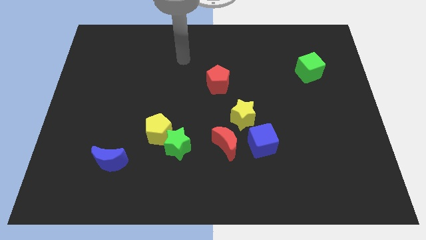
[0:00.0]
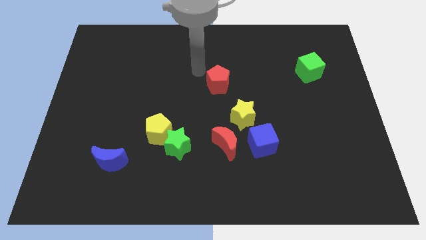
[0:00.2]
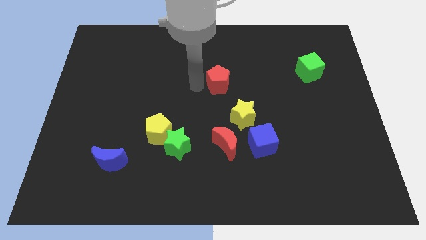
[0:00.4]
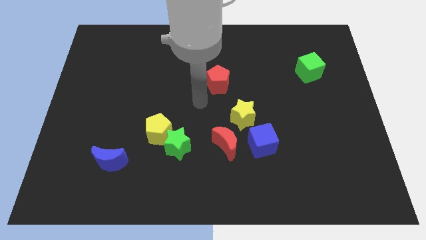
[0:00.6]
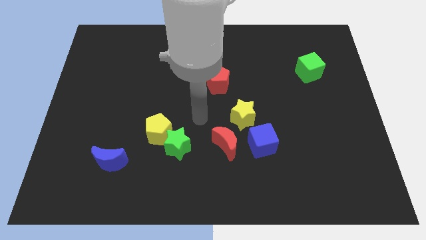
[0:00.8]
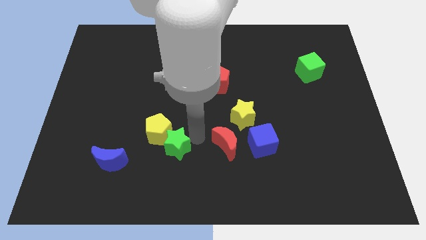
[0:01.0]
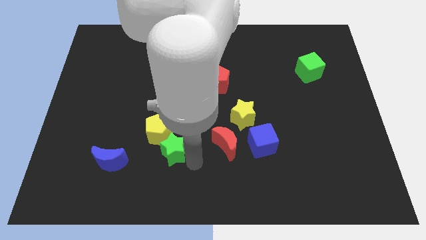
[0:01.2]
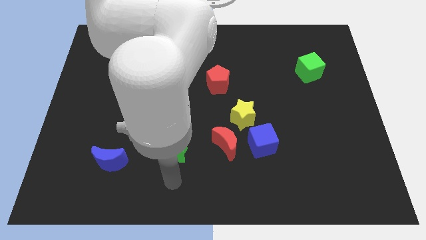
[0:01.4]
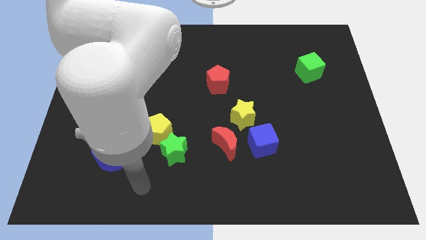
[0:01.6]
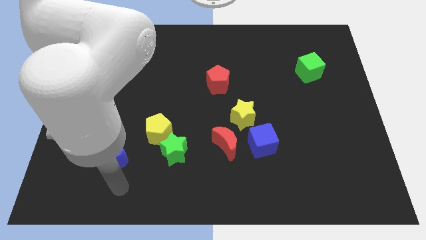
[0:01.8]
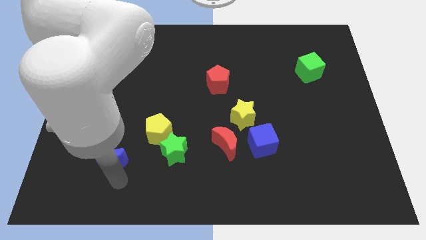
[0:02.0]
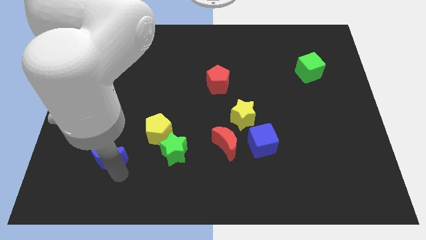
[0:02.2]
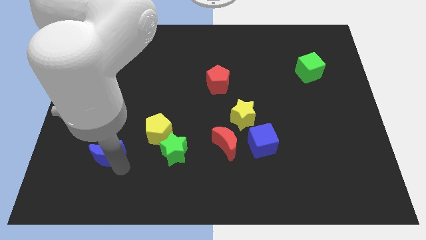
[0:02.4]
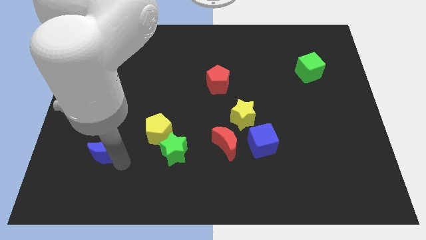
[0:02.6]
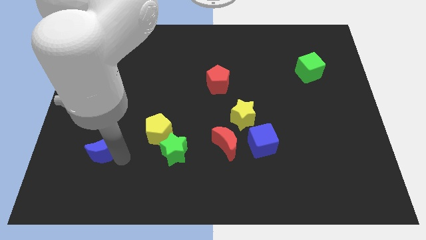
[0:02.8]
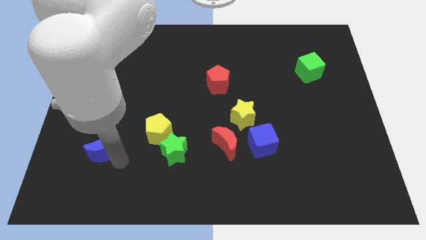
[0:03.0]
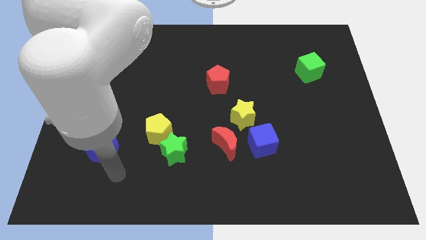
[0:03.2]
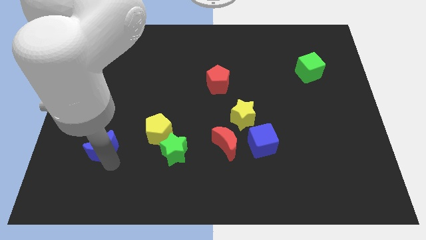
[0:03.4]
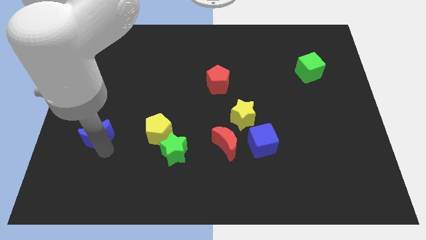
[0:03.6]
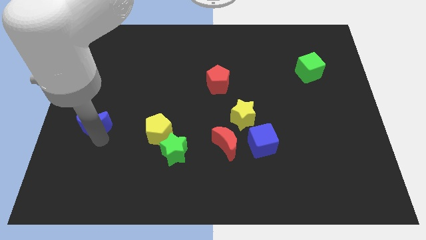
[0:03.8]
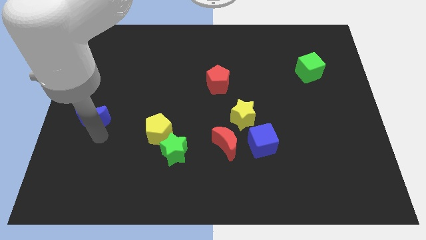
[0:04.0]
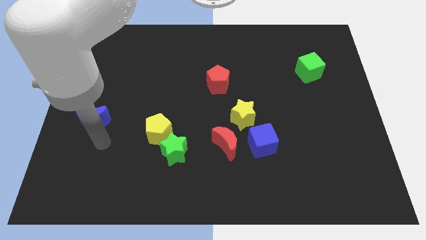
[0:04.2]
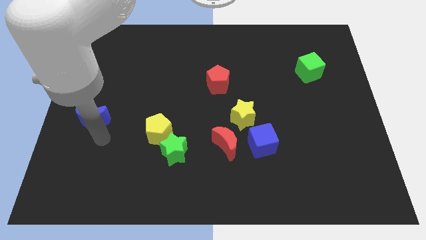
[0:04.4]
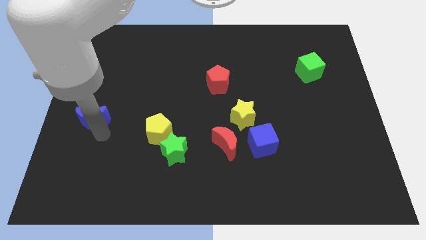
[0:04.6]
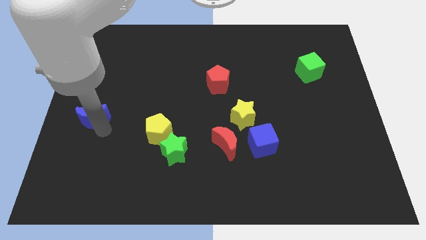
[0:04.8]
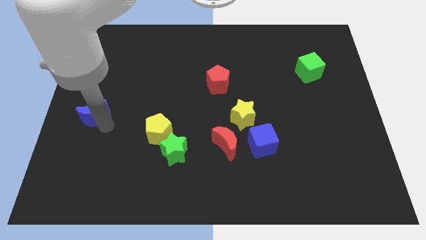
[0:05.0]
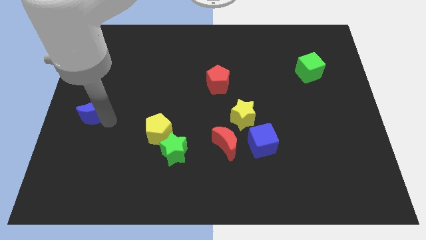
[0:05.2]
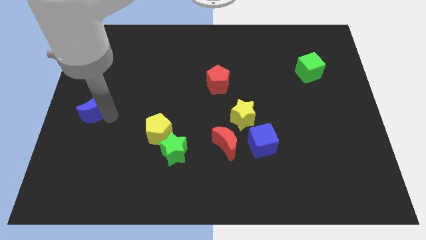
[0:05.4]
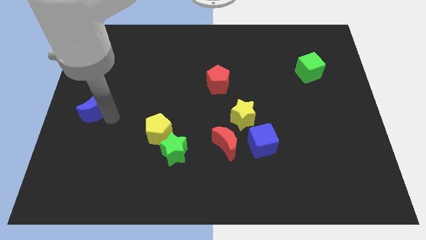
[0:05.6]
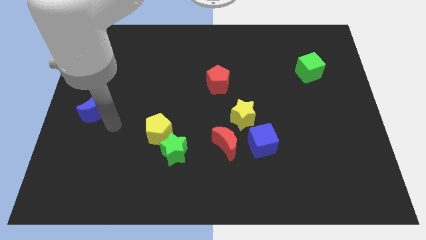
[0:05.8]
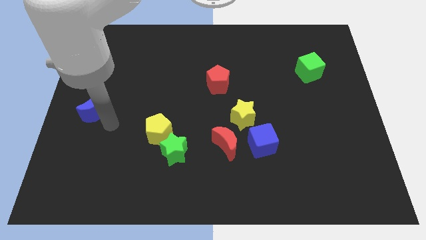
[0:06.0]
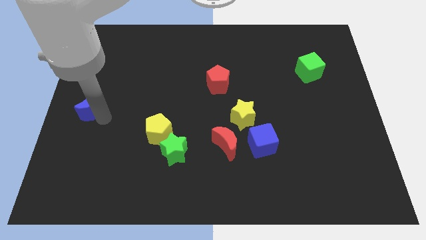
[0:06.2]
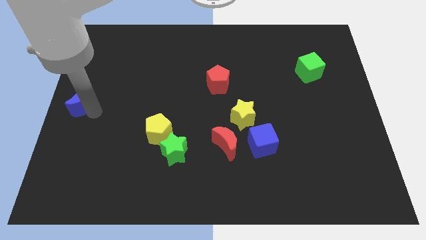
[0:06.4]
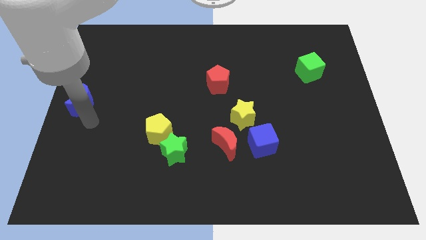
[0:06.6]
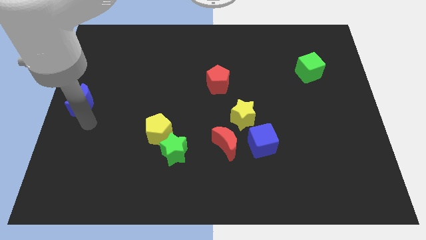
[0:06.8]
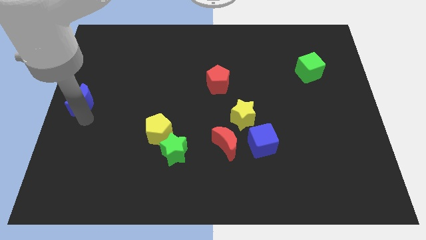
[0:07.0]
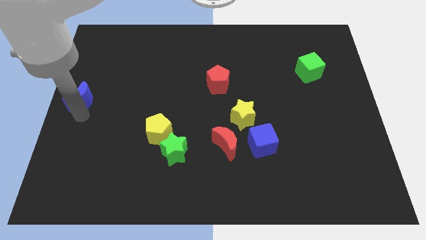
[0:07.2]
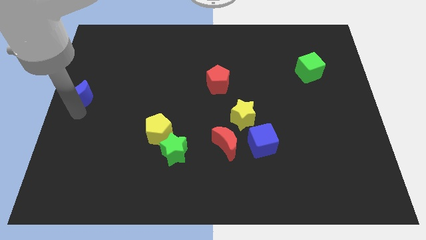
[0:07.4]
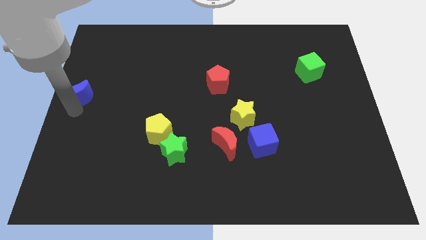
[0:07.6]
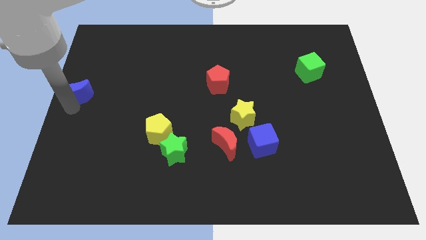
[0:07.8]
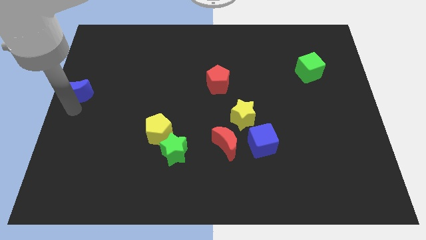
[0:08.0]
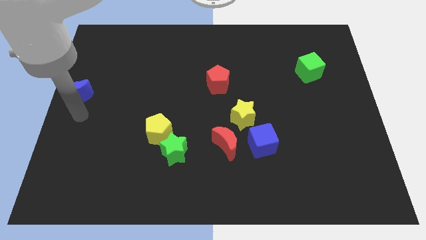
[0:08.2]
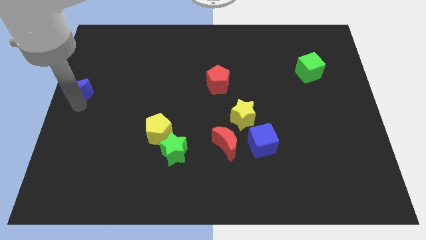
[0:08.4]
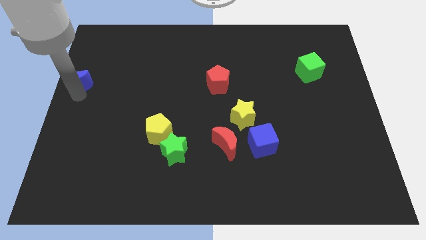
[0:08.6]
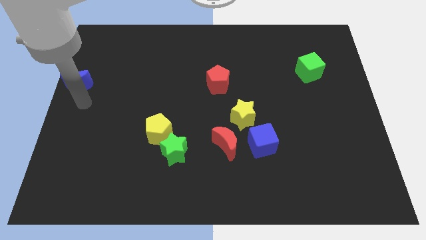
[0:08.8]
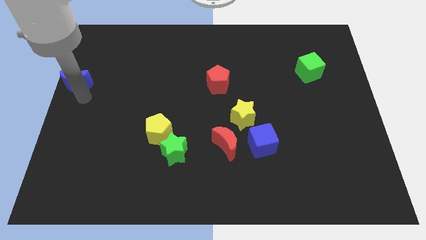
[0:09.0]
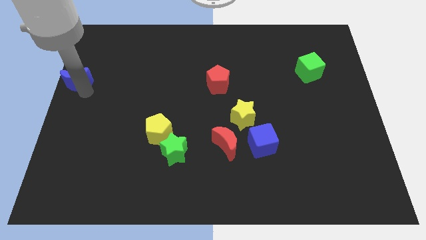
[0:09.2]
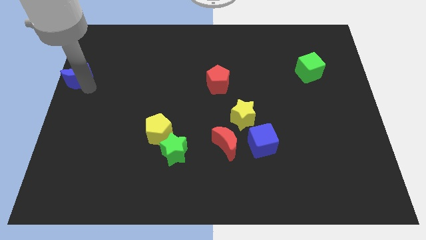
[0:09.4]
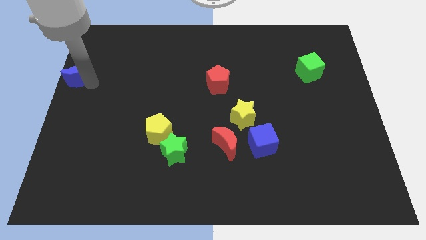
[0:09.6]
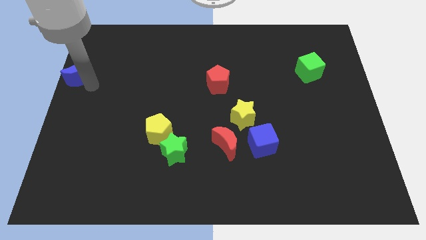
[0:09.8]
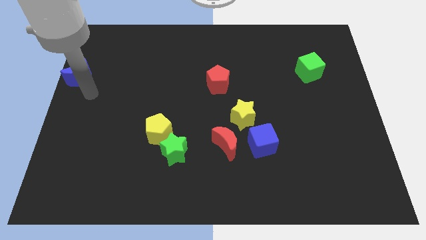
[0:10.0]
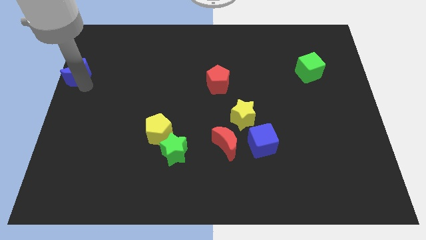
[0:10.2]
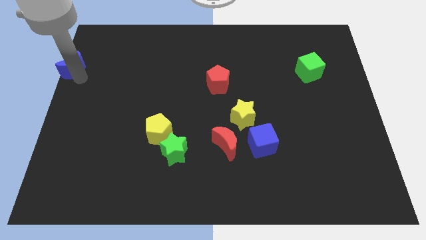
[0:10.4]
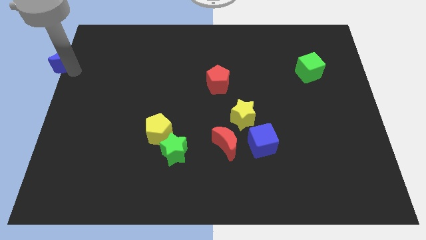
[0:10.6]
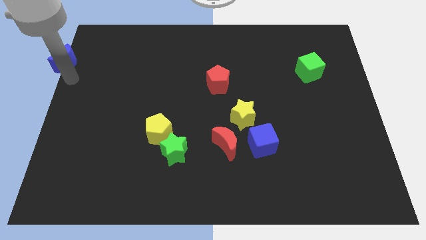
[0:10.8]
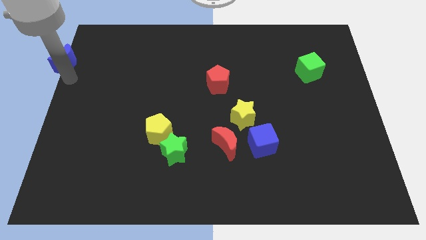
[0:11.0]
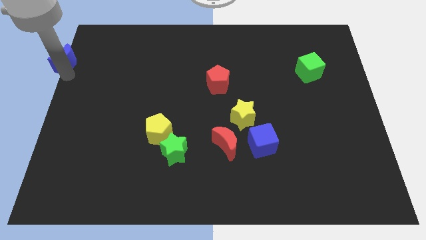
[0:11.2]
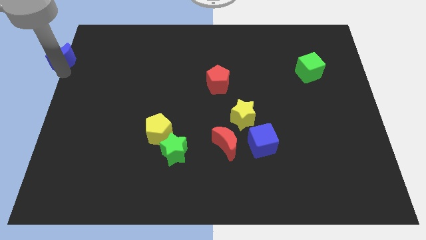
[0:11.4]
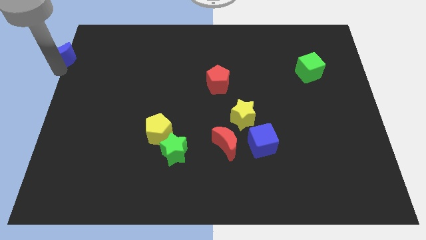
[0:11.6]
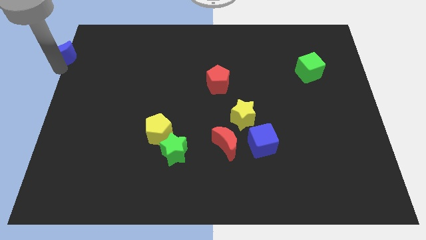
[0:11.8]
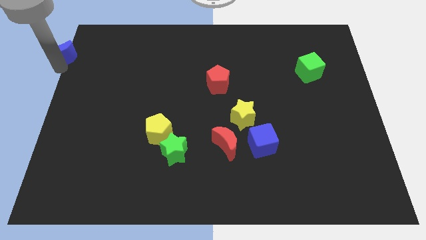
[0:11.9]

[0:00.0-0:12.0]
push the blue moon to the upper left corner

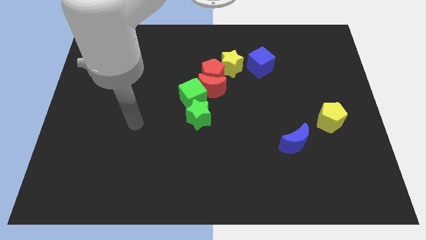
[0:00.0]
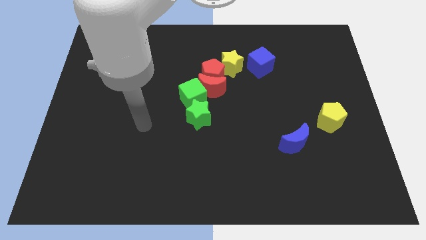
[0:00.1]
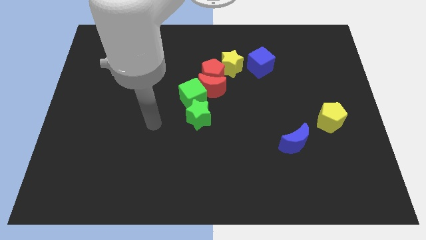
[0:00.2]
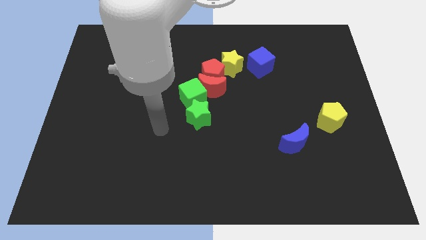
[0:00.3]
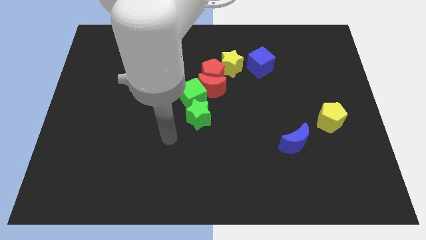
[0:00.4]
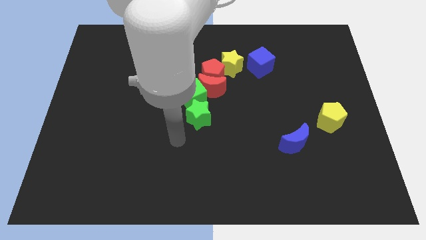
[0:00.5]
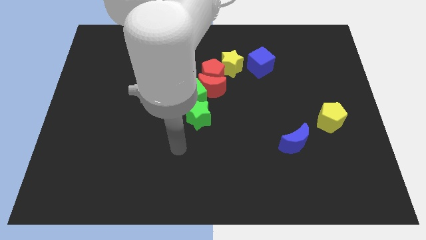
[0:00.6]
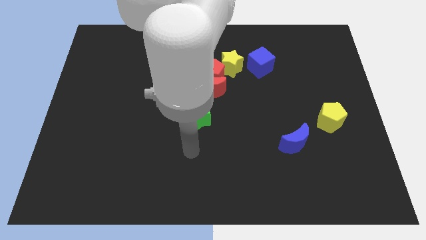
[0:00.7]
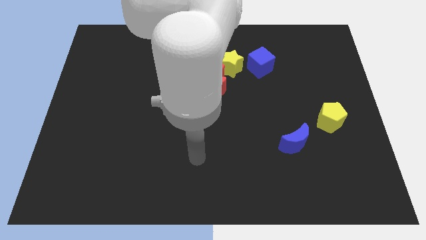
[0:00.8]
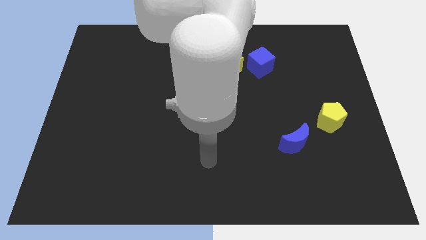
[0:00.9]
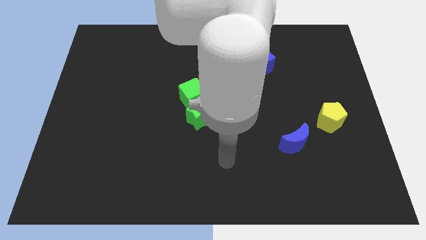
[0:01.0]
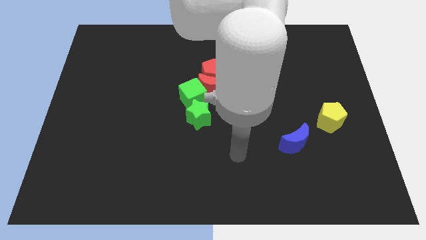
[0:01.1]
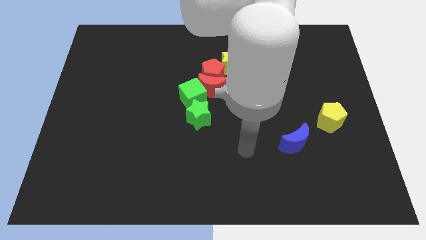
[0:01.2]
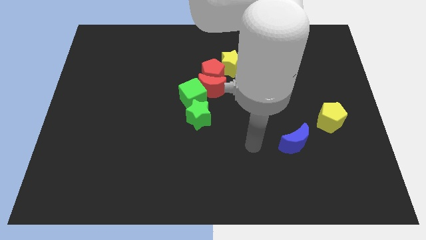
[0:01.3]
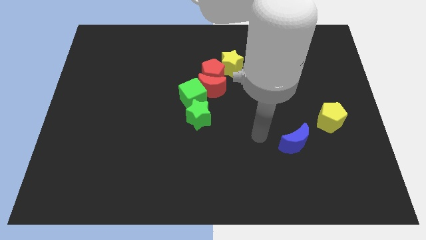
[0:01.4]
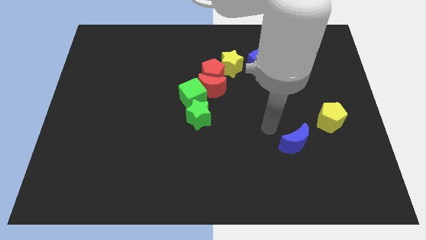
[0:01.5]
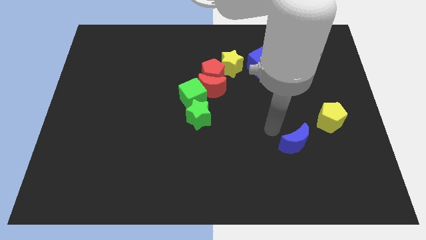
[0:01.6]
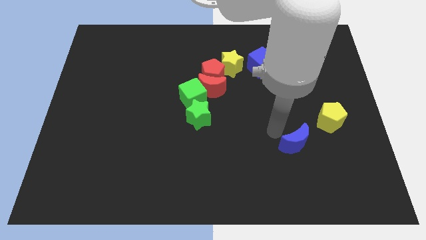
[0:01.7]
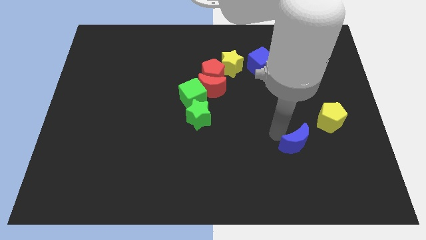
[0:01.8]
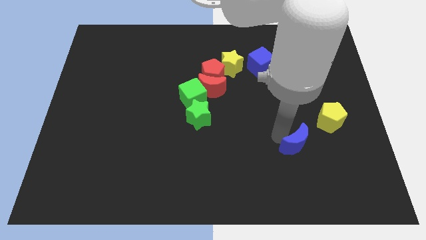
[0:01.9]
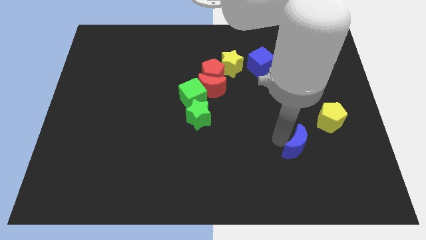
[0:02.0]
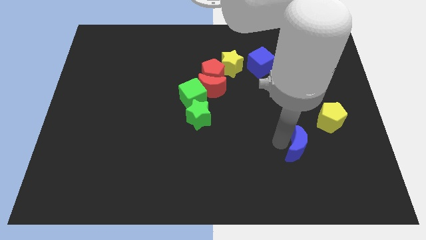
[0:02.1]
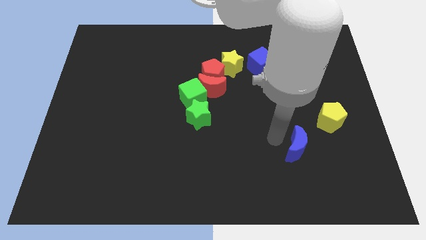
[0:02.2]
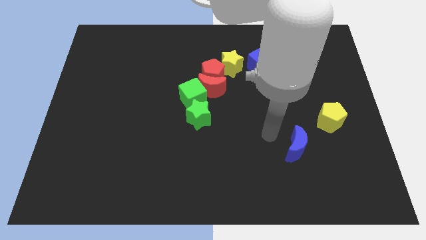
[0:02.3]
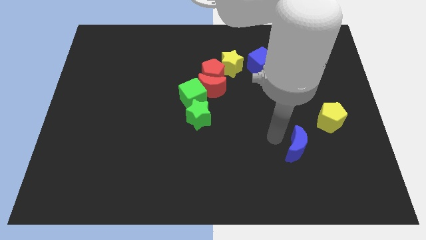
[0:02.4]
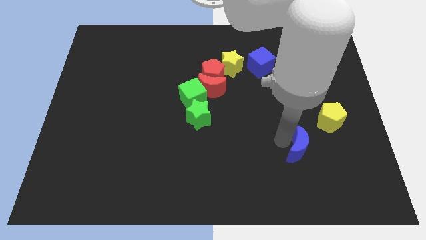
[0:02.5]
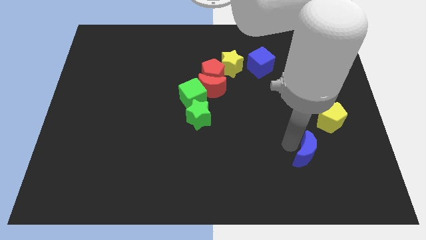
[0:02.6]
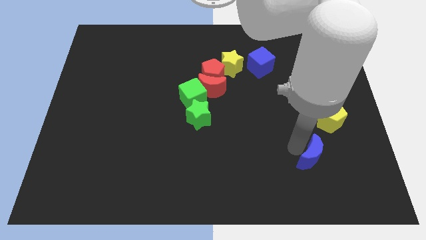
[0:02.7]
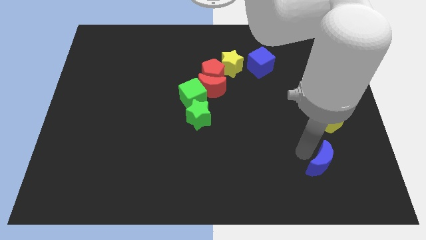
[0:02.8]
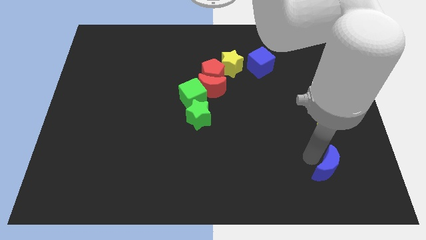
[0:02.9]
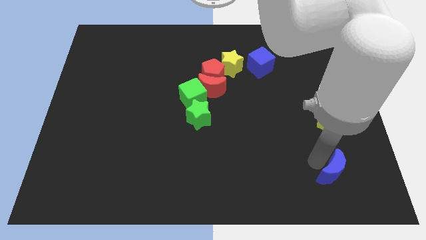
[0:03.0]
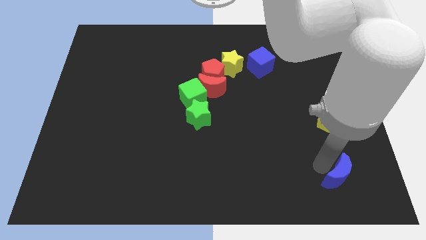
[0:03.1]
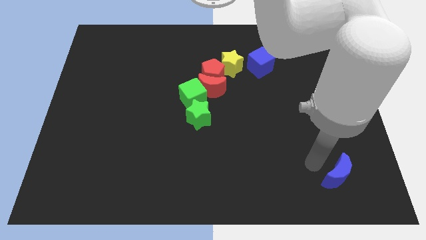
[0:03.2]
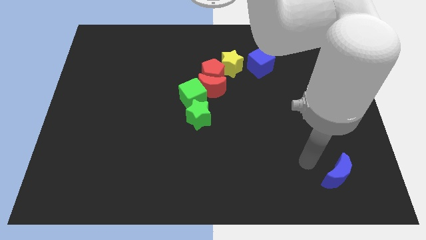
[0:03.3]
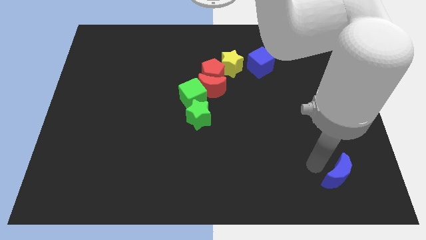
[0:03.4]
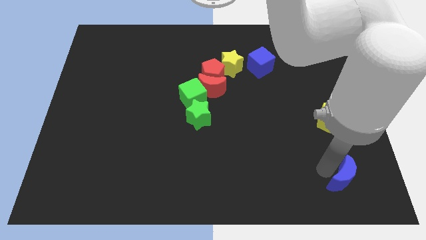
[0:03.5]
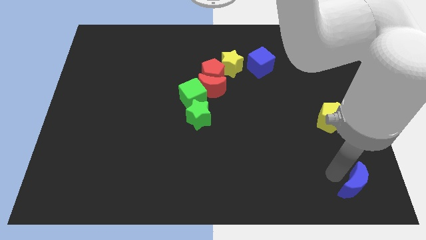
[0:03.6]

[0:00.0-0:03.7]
slide the blue moon to the bottom right of the board
